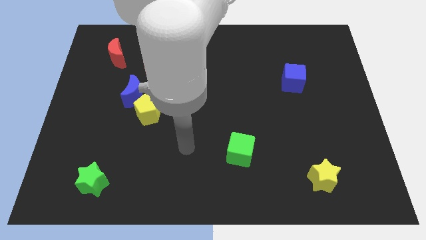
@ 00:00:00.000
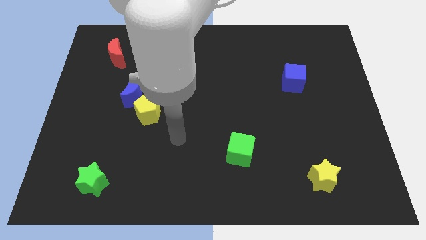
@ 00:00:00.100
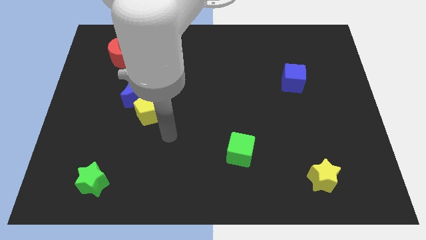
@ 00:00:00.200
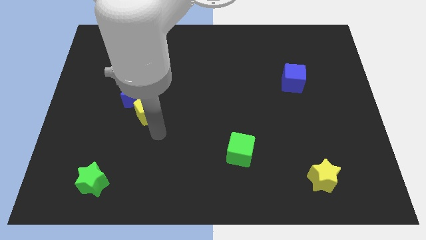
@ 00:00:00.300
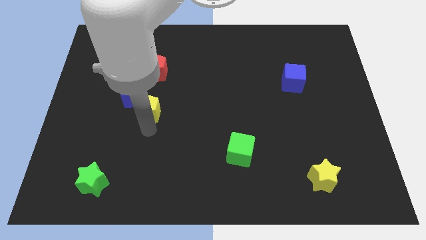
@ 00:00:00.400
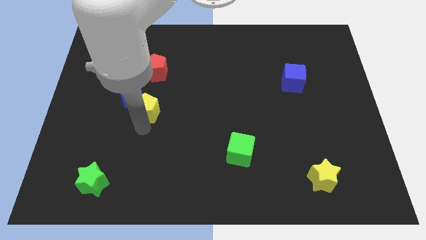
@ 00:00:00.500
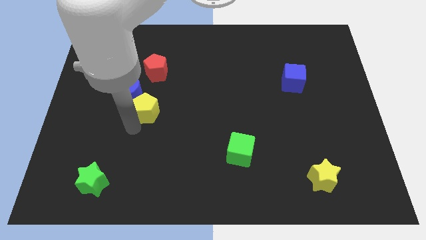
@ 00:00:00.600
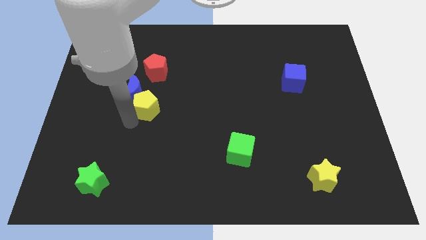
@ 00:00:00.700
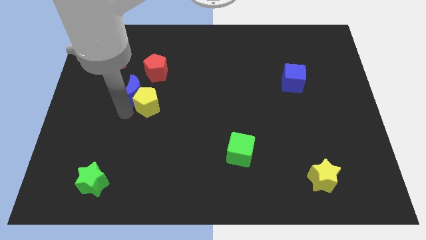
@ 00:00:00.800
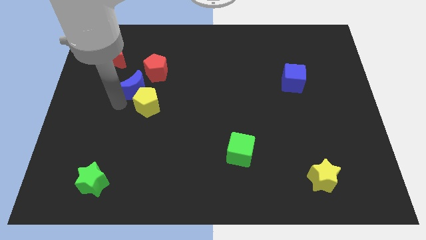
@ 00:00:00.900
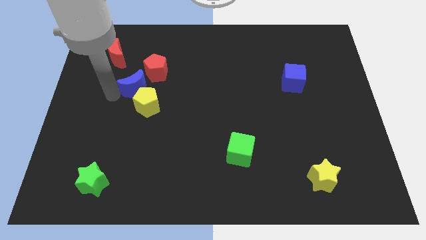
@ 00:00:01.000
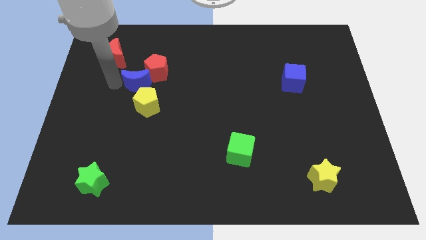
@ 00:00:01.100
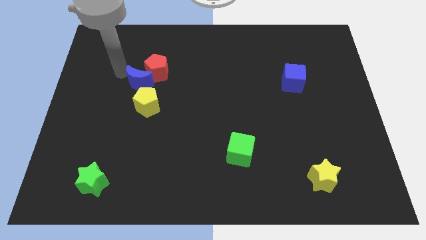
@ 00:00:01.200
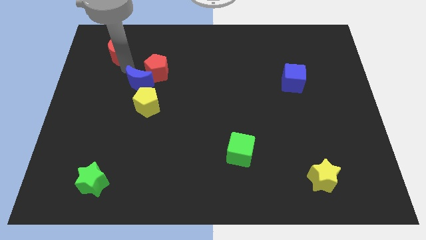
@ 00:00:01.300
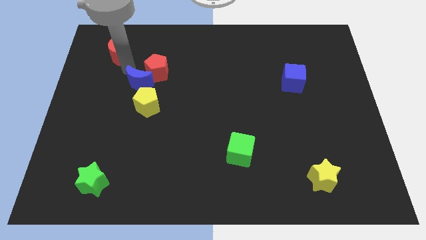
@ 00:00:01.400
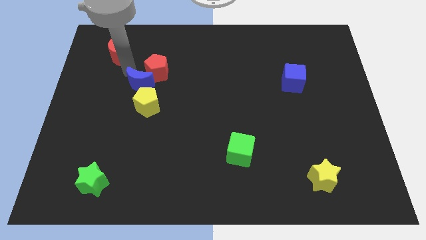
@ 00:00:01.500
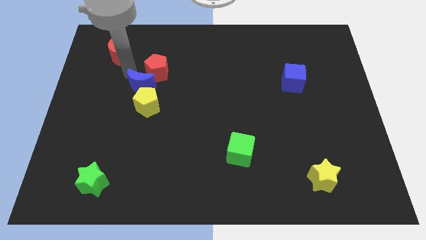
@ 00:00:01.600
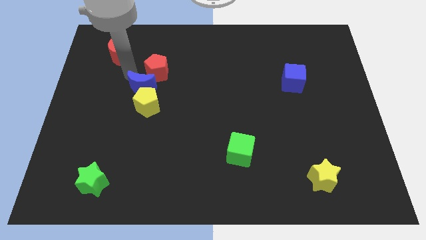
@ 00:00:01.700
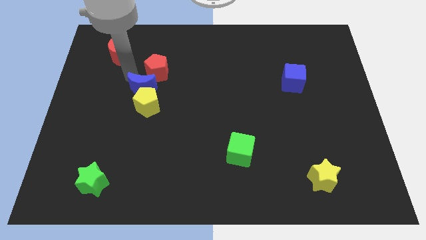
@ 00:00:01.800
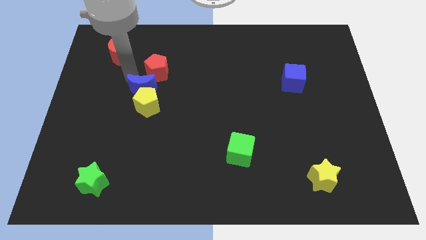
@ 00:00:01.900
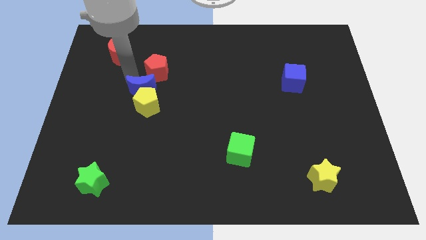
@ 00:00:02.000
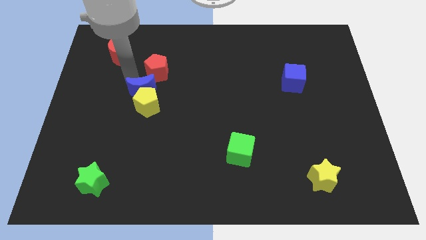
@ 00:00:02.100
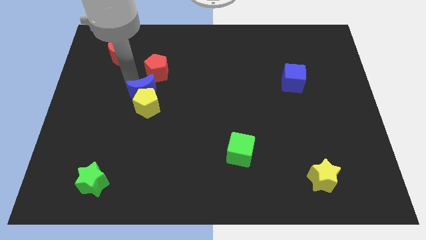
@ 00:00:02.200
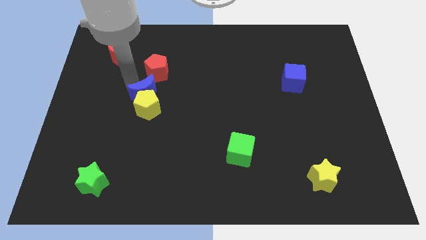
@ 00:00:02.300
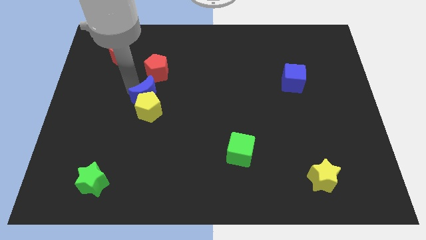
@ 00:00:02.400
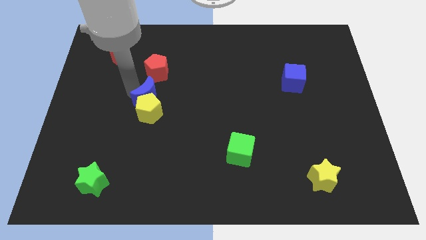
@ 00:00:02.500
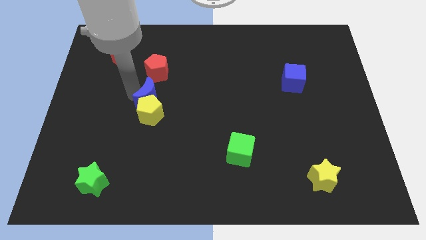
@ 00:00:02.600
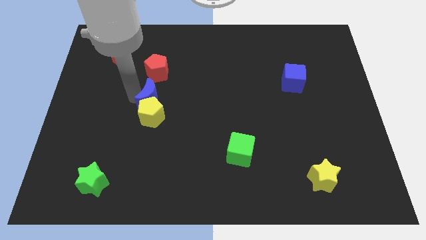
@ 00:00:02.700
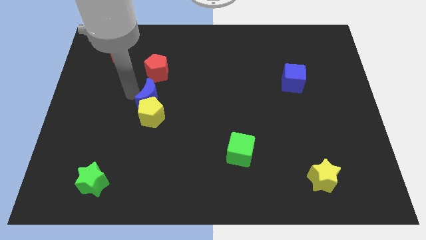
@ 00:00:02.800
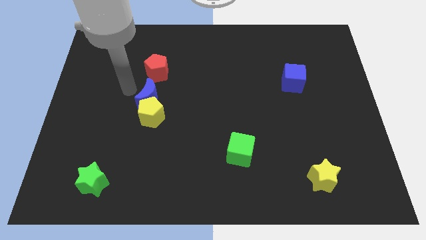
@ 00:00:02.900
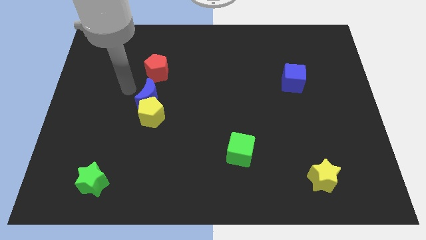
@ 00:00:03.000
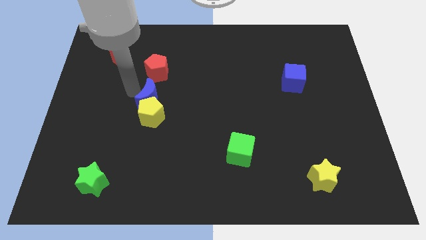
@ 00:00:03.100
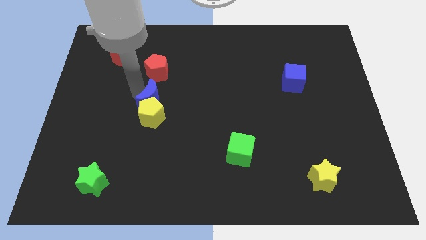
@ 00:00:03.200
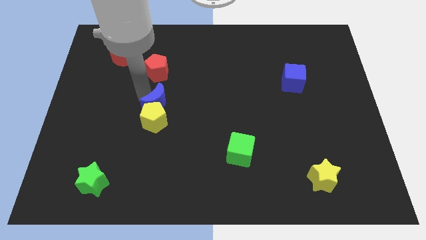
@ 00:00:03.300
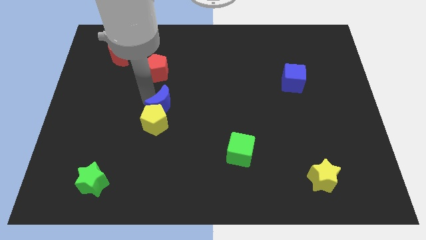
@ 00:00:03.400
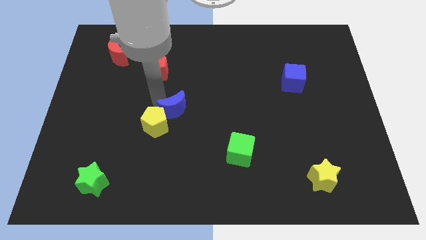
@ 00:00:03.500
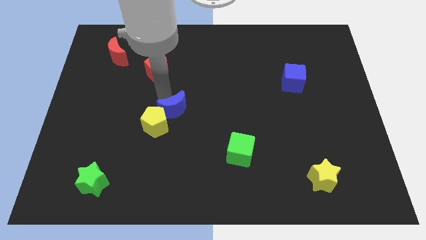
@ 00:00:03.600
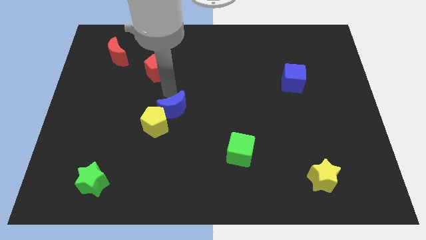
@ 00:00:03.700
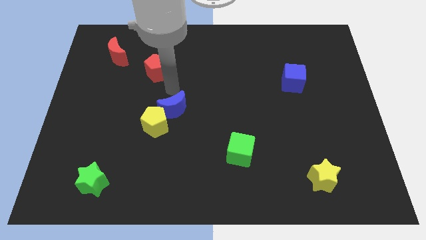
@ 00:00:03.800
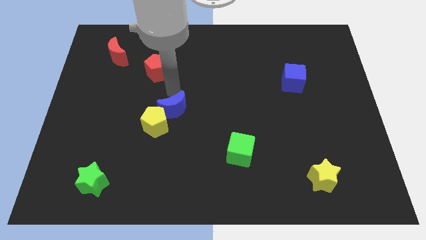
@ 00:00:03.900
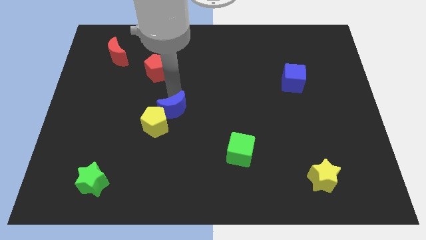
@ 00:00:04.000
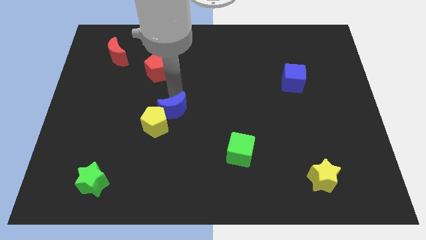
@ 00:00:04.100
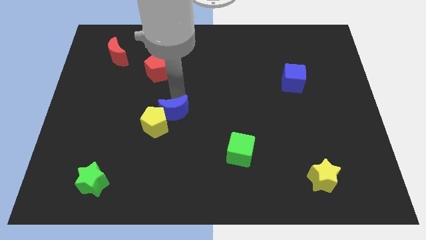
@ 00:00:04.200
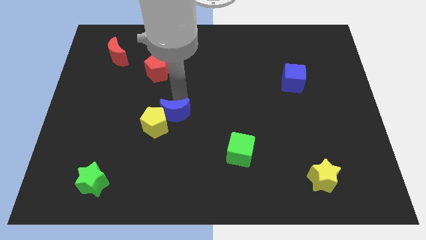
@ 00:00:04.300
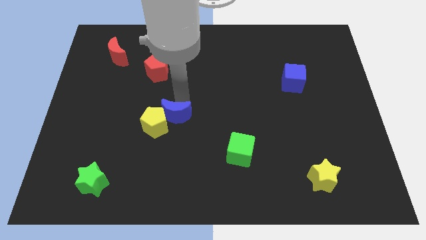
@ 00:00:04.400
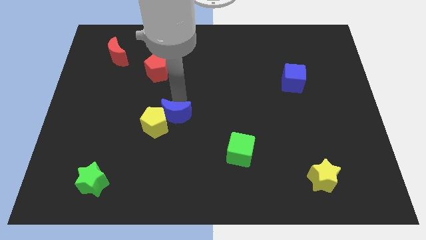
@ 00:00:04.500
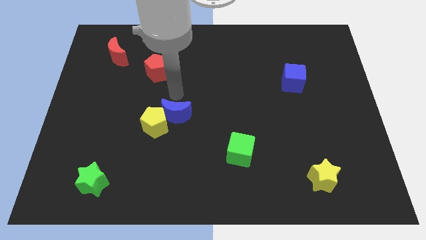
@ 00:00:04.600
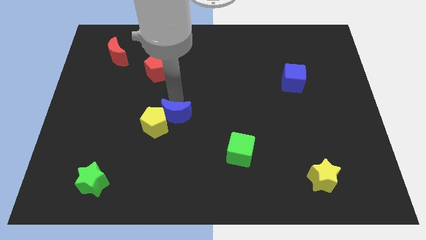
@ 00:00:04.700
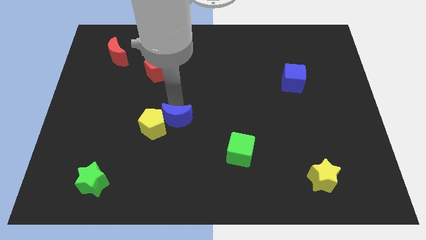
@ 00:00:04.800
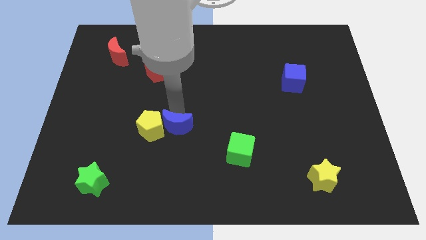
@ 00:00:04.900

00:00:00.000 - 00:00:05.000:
slide the blue moon to the bottom right side of the yellow pentagon

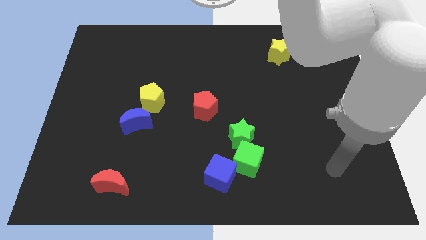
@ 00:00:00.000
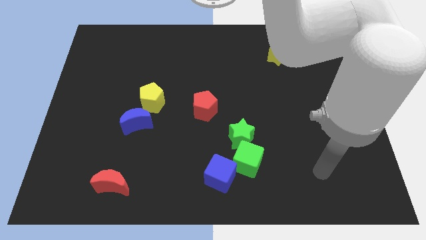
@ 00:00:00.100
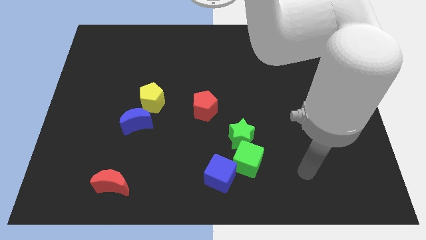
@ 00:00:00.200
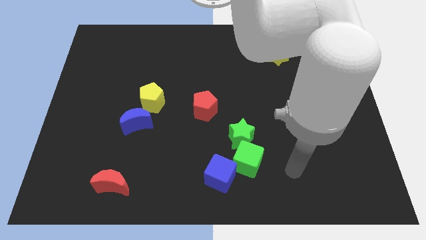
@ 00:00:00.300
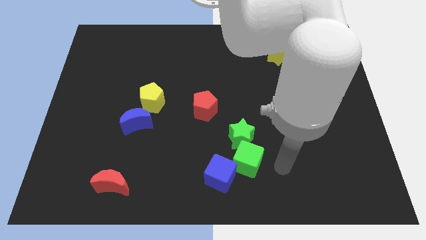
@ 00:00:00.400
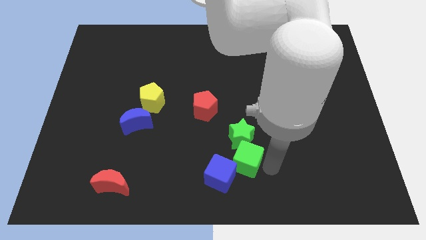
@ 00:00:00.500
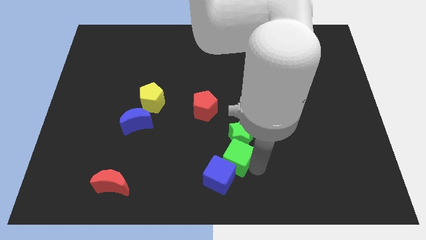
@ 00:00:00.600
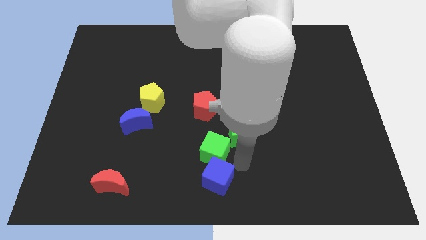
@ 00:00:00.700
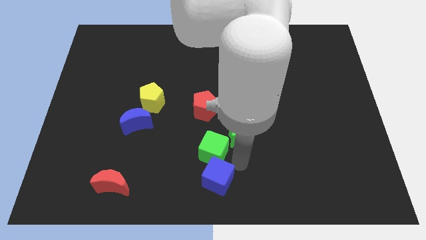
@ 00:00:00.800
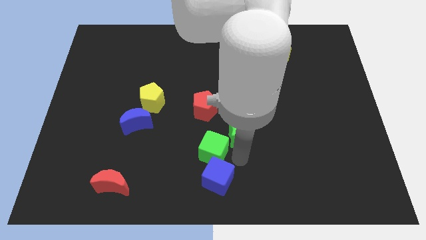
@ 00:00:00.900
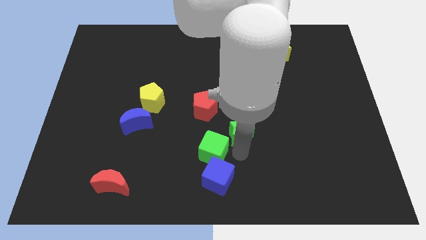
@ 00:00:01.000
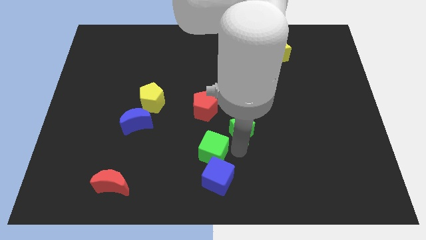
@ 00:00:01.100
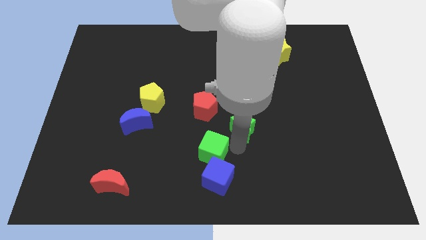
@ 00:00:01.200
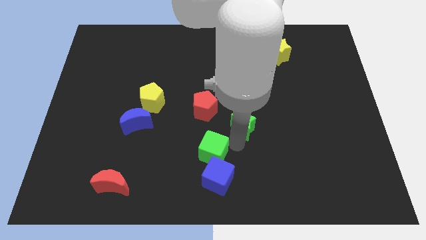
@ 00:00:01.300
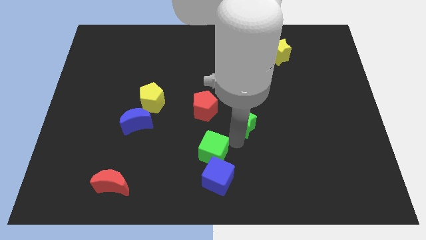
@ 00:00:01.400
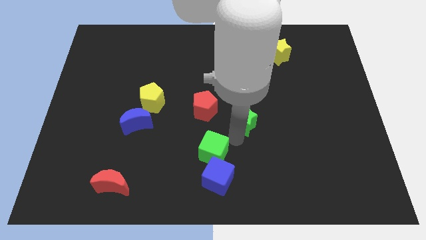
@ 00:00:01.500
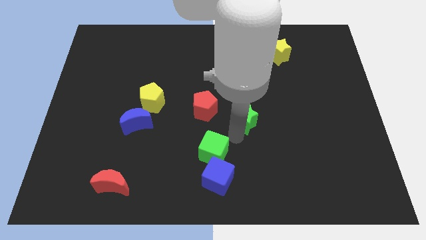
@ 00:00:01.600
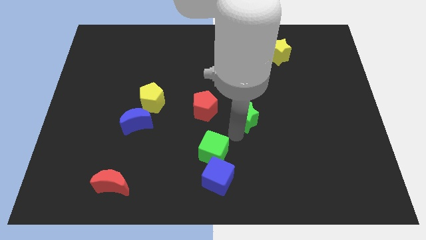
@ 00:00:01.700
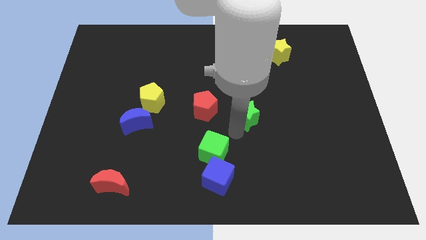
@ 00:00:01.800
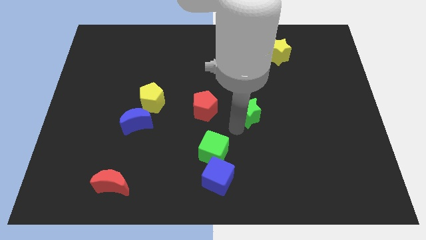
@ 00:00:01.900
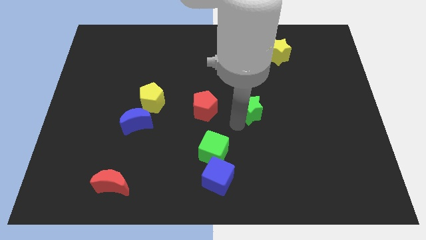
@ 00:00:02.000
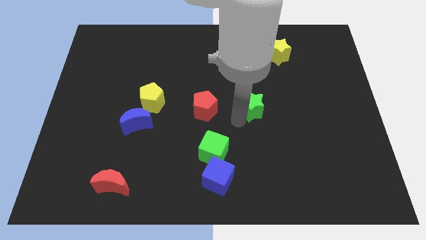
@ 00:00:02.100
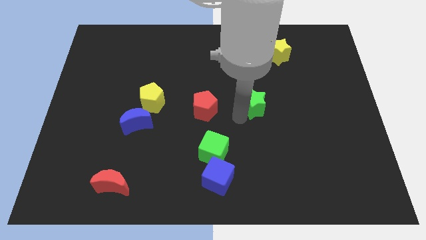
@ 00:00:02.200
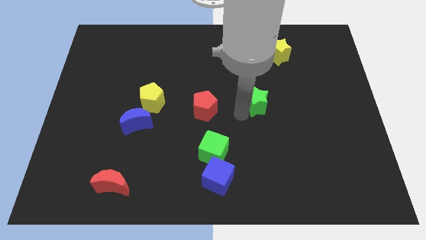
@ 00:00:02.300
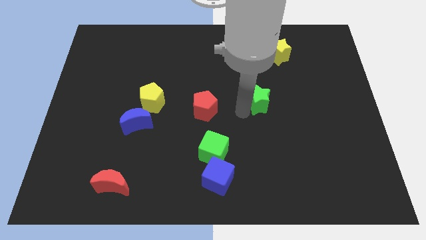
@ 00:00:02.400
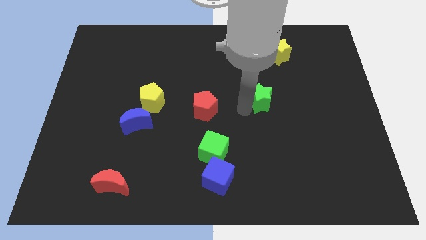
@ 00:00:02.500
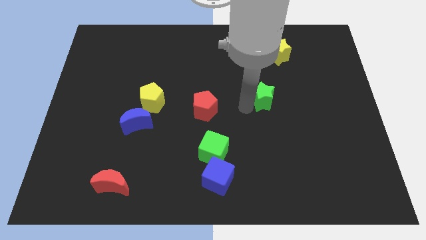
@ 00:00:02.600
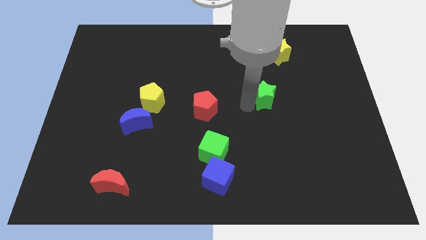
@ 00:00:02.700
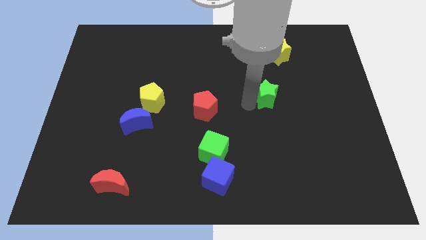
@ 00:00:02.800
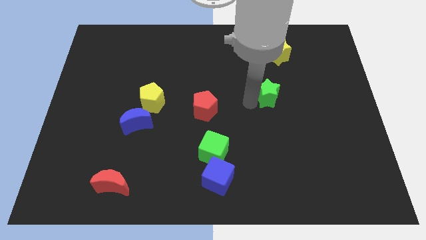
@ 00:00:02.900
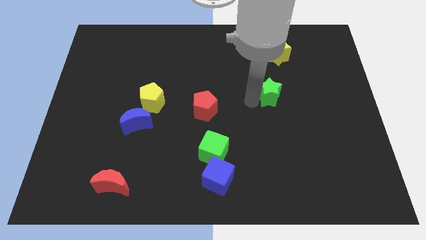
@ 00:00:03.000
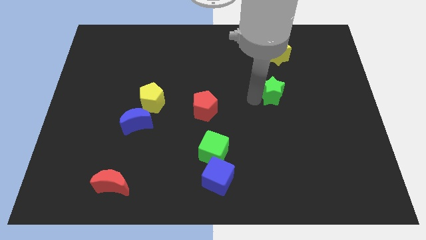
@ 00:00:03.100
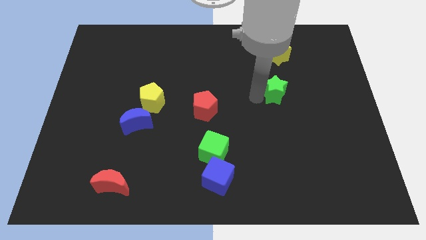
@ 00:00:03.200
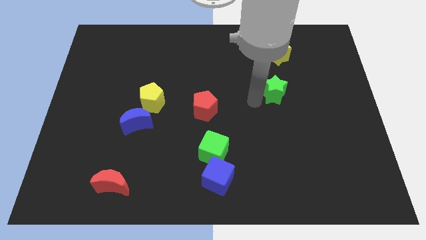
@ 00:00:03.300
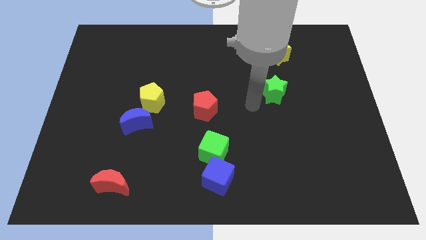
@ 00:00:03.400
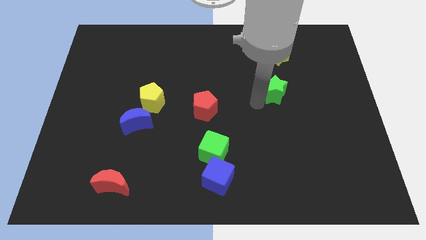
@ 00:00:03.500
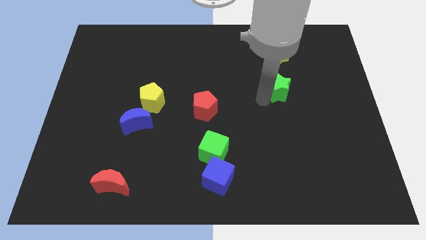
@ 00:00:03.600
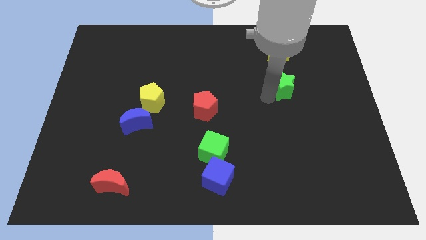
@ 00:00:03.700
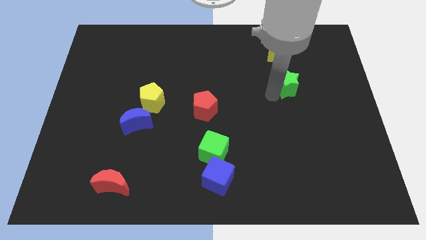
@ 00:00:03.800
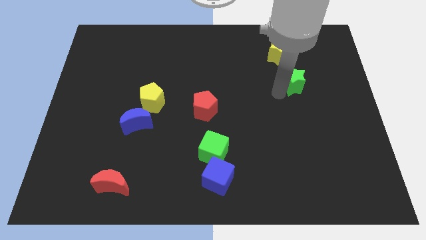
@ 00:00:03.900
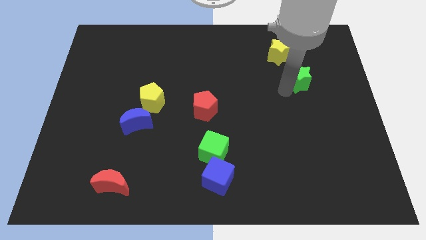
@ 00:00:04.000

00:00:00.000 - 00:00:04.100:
put the green star to the bottom right of the yellow star
